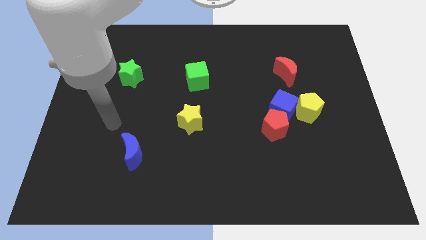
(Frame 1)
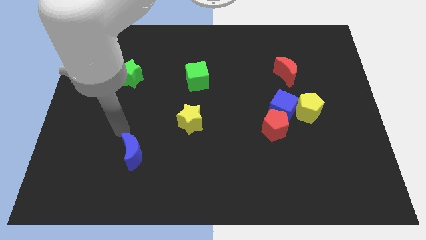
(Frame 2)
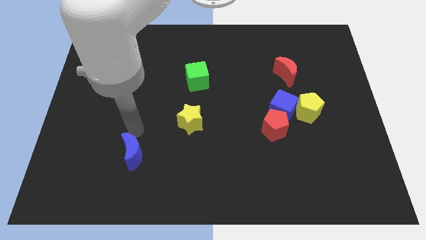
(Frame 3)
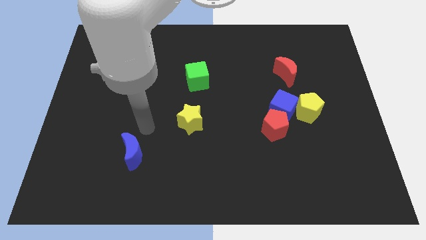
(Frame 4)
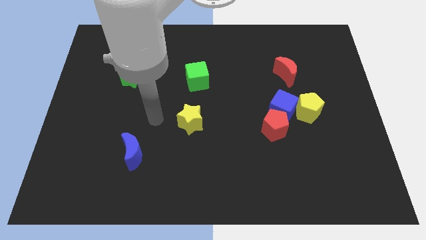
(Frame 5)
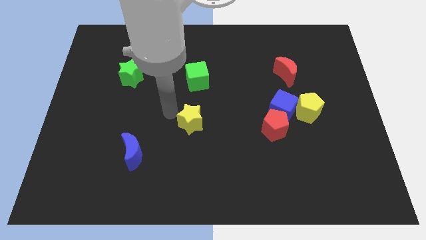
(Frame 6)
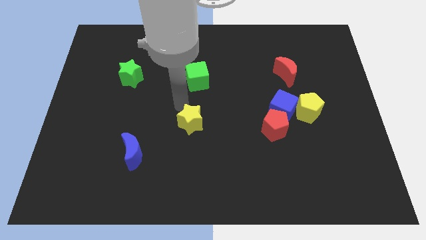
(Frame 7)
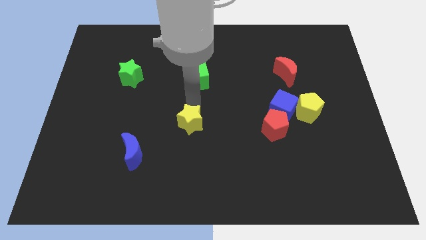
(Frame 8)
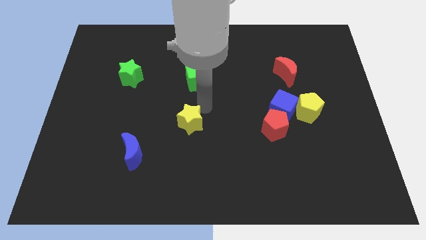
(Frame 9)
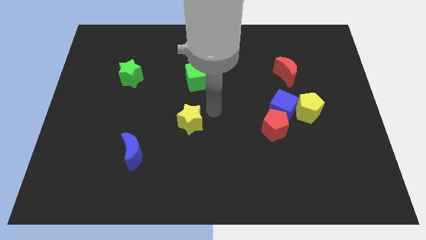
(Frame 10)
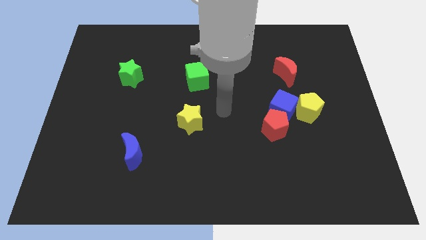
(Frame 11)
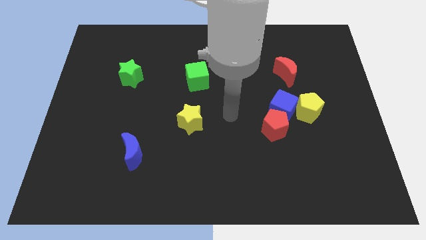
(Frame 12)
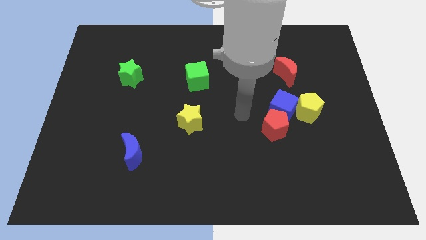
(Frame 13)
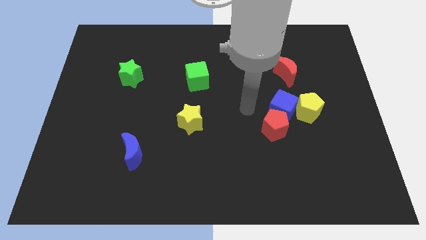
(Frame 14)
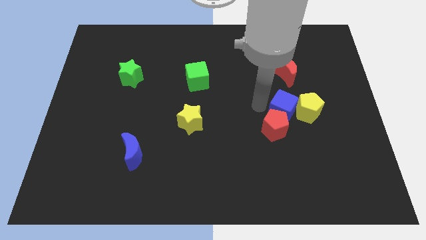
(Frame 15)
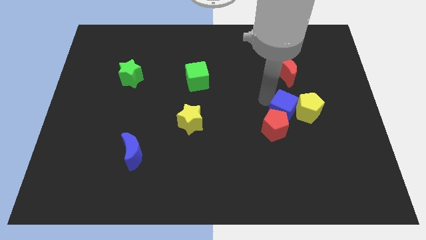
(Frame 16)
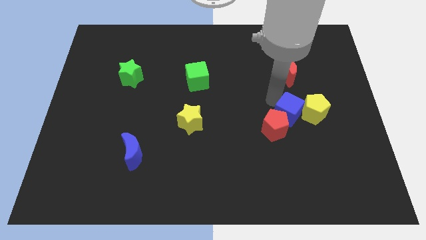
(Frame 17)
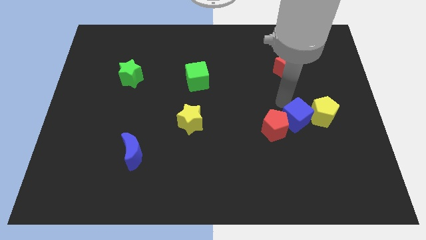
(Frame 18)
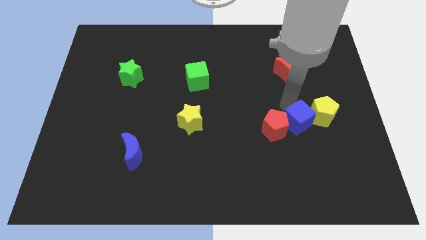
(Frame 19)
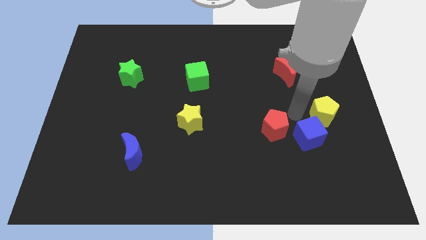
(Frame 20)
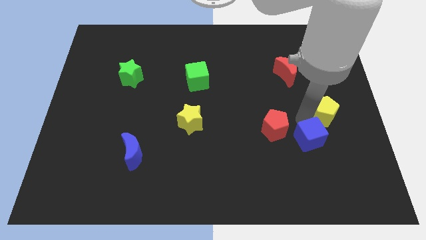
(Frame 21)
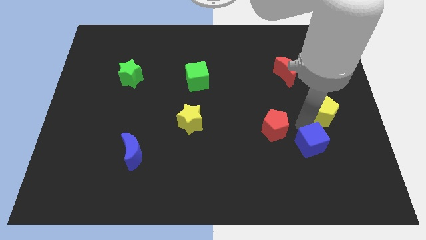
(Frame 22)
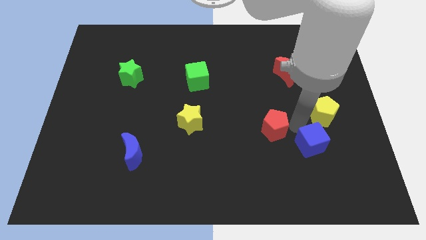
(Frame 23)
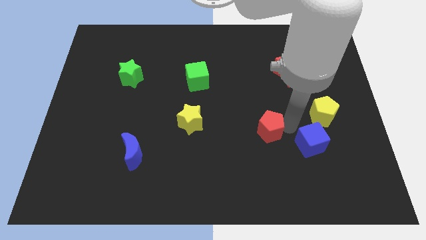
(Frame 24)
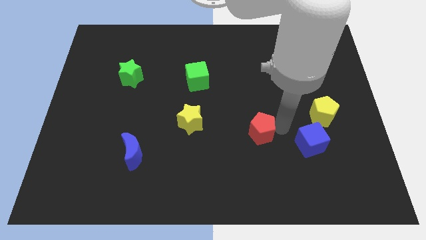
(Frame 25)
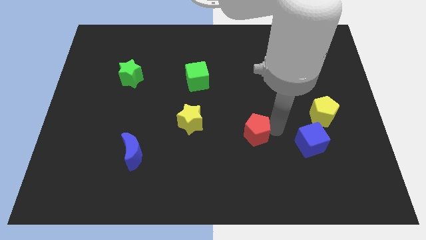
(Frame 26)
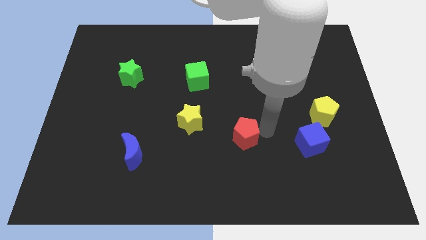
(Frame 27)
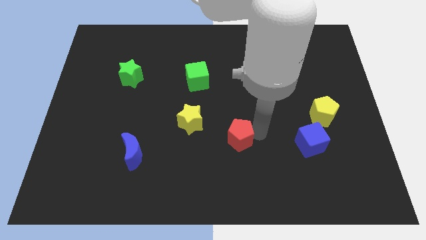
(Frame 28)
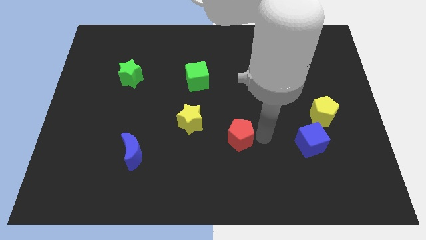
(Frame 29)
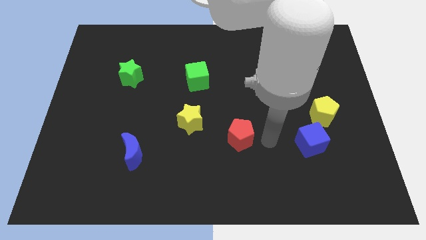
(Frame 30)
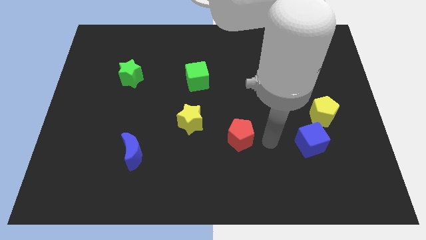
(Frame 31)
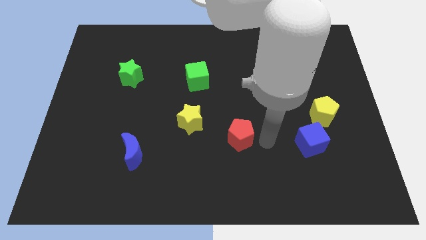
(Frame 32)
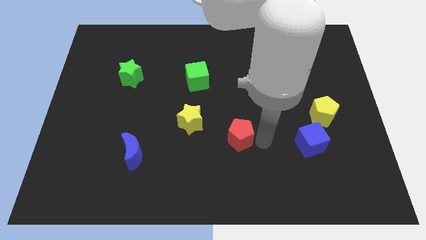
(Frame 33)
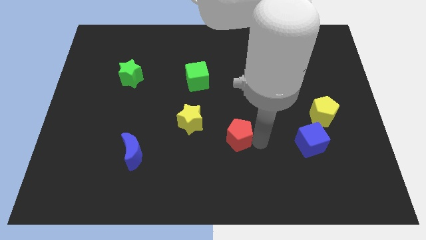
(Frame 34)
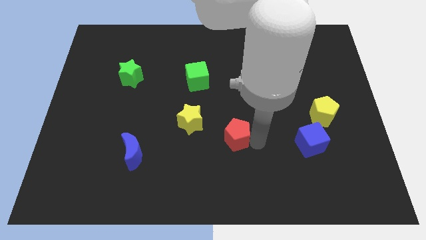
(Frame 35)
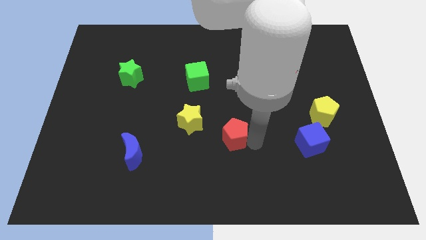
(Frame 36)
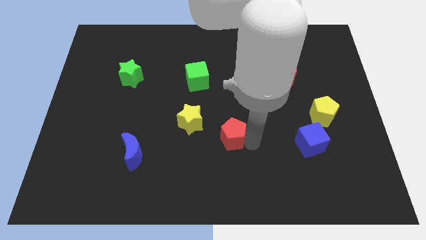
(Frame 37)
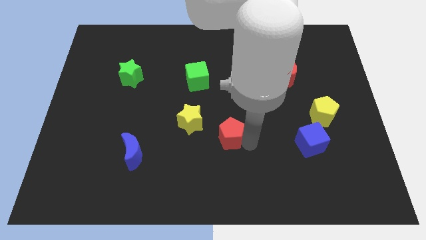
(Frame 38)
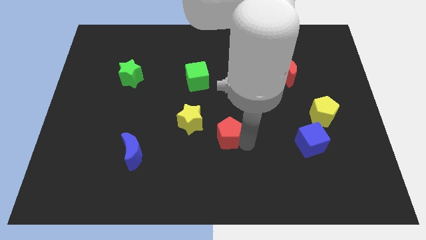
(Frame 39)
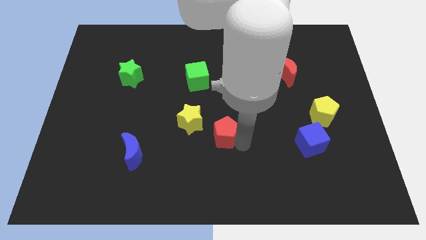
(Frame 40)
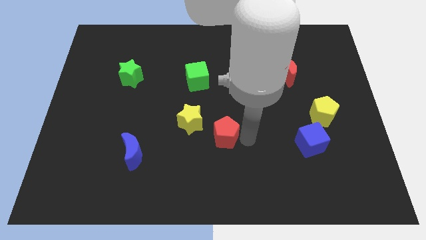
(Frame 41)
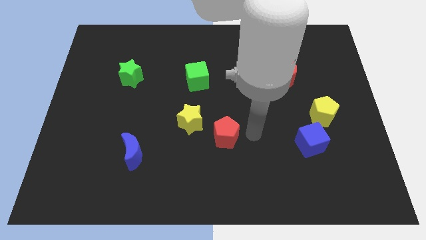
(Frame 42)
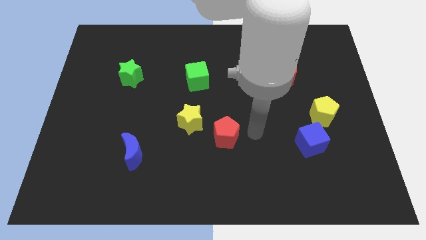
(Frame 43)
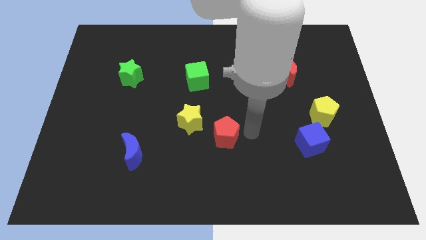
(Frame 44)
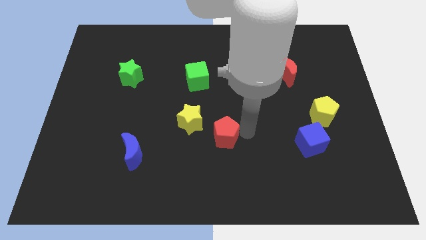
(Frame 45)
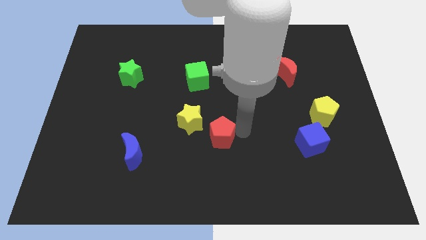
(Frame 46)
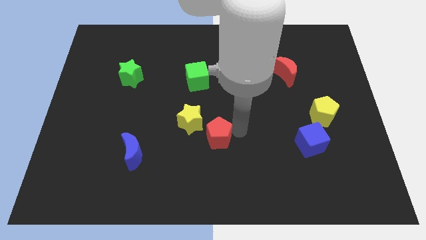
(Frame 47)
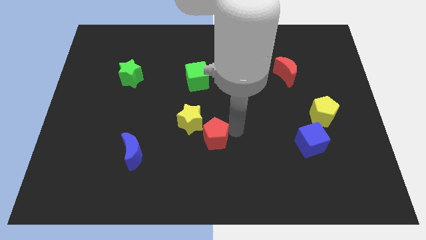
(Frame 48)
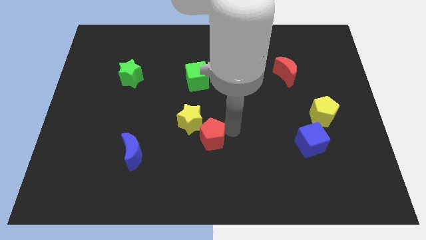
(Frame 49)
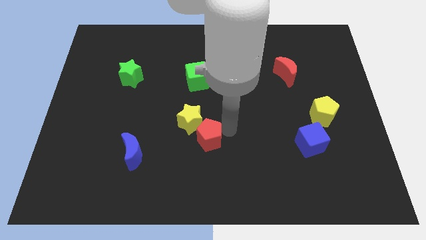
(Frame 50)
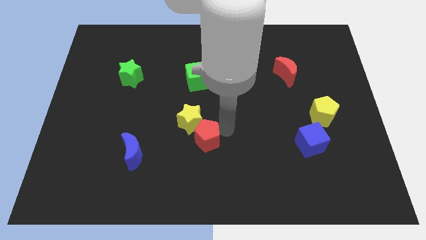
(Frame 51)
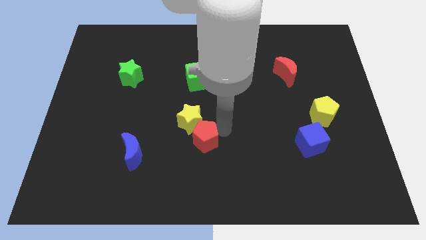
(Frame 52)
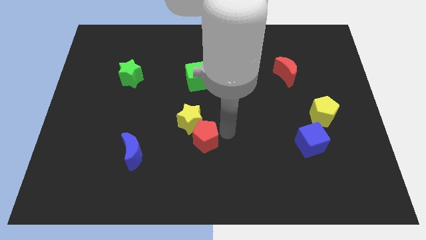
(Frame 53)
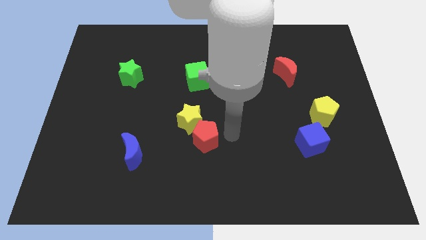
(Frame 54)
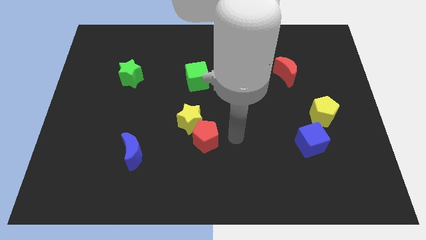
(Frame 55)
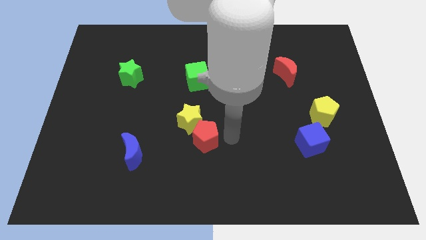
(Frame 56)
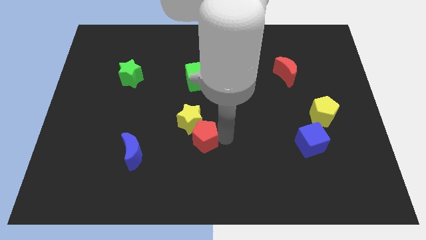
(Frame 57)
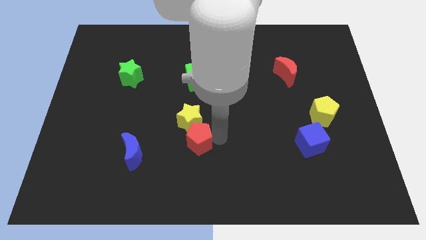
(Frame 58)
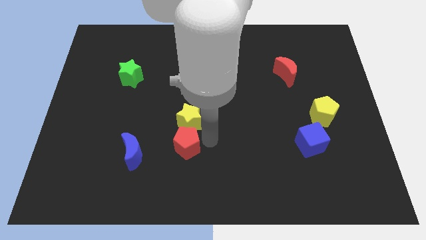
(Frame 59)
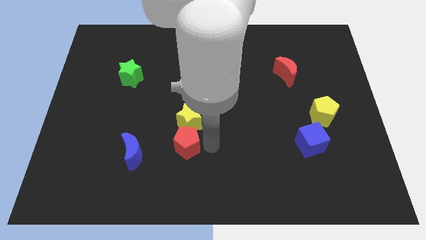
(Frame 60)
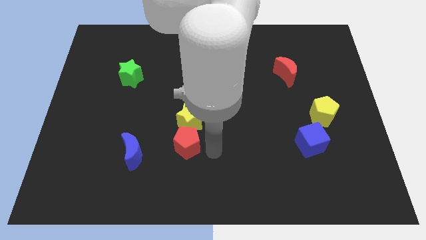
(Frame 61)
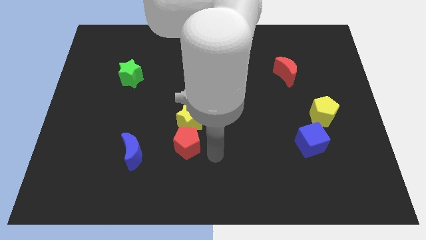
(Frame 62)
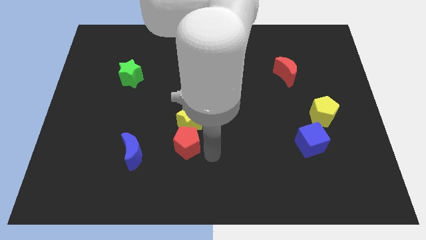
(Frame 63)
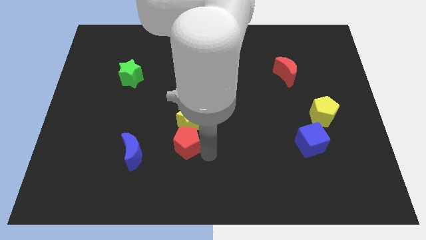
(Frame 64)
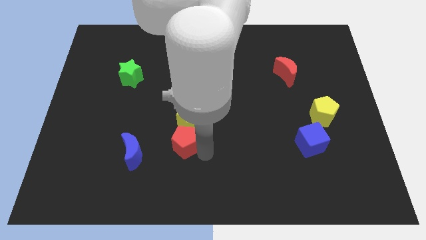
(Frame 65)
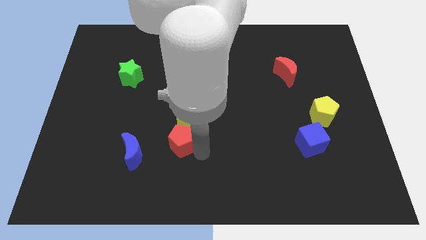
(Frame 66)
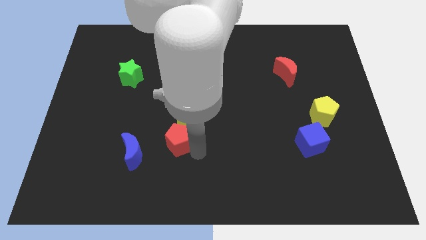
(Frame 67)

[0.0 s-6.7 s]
push the red pentagon to the top right of the blue moon
